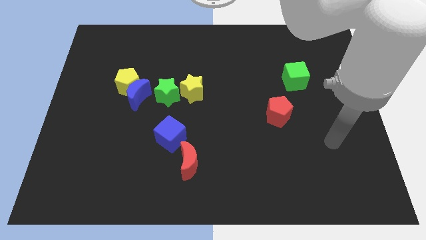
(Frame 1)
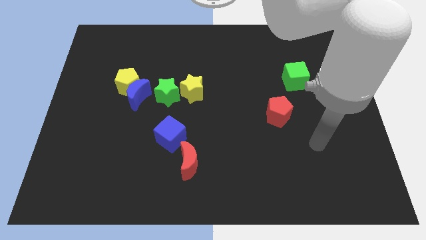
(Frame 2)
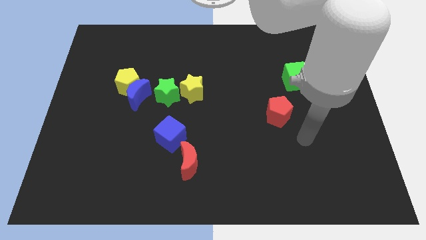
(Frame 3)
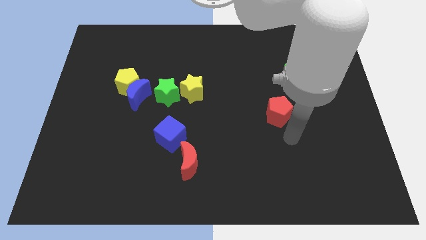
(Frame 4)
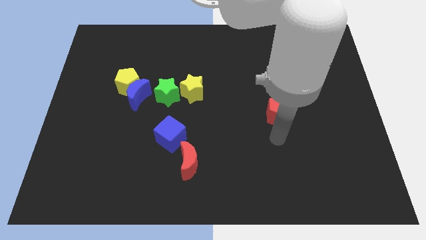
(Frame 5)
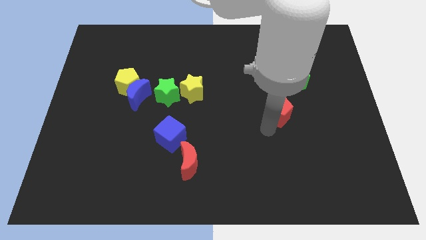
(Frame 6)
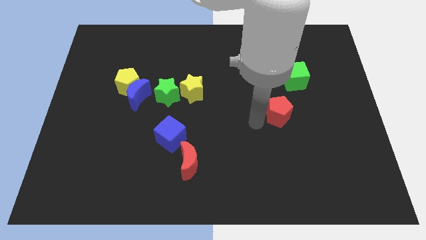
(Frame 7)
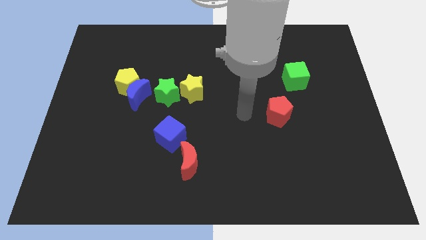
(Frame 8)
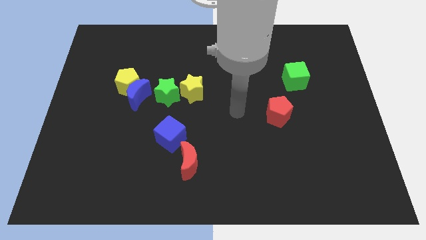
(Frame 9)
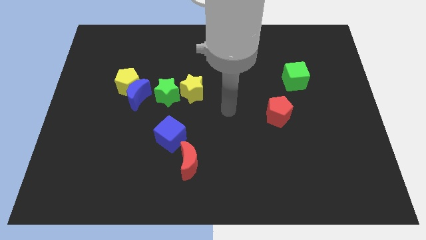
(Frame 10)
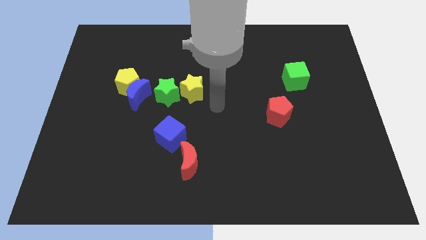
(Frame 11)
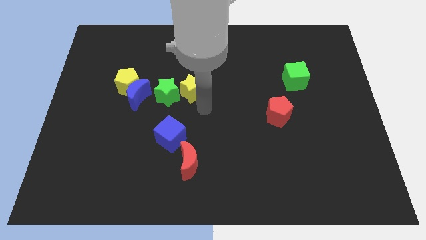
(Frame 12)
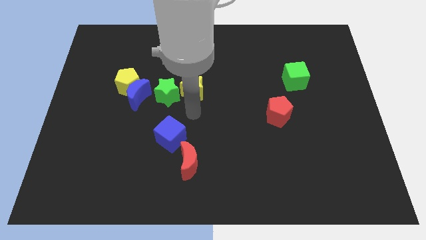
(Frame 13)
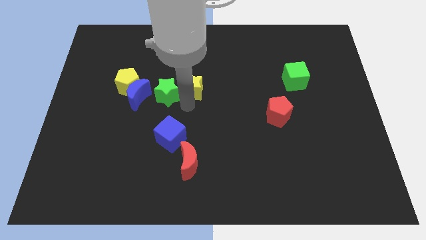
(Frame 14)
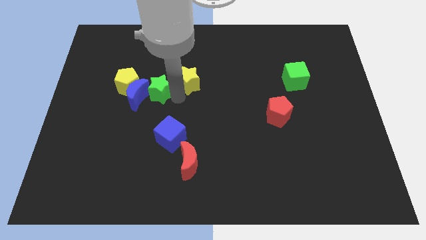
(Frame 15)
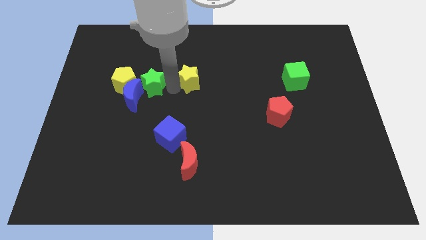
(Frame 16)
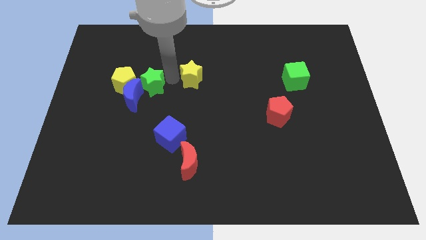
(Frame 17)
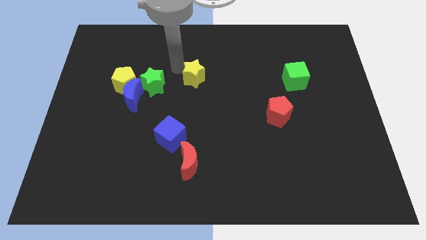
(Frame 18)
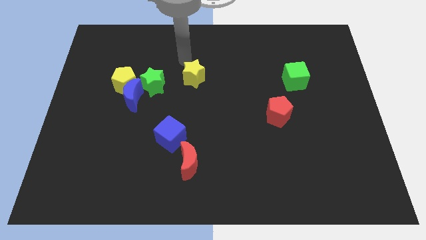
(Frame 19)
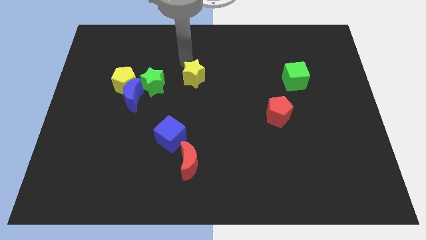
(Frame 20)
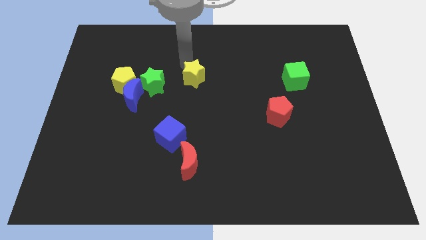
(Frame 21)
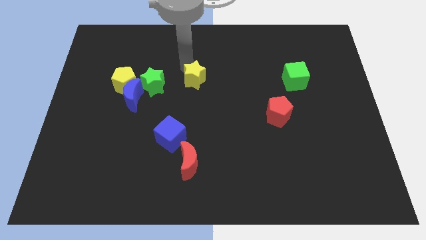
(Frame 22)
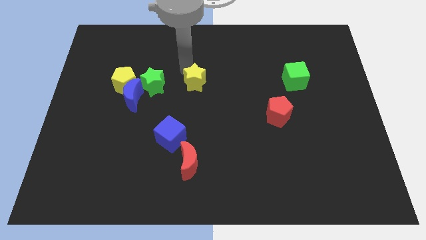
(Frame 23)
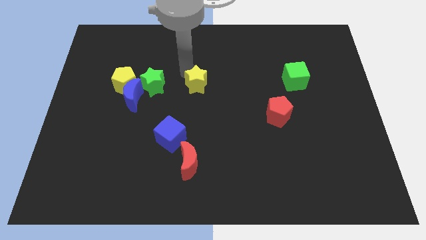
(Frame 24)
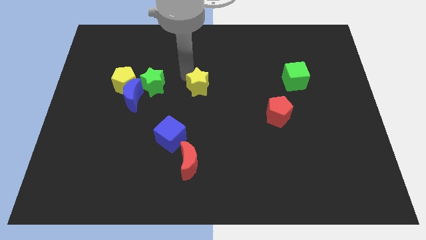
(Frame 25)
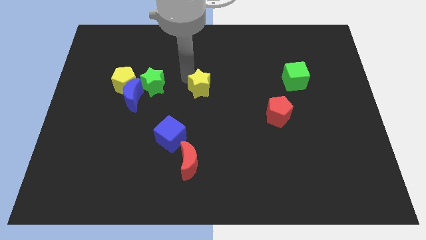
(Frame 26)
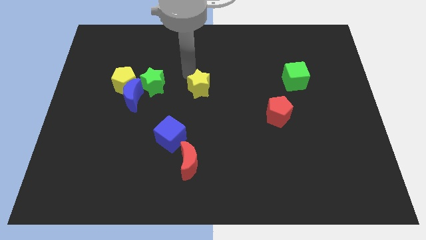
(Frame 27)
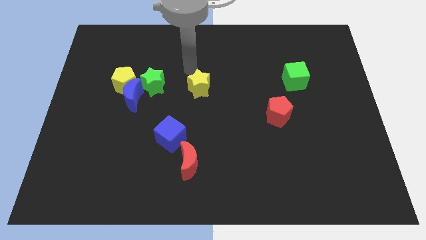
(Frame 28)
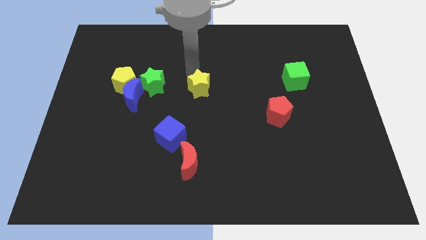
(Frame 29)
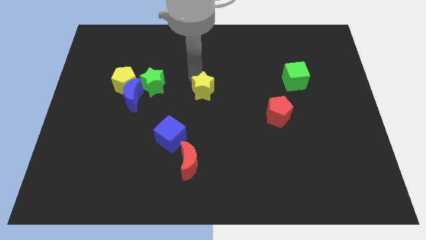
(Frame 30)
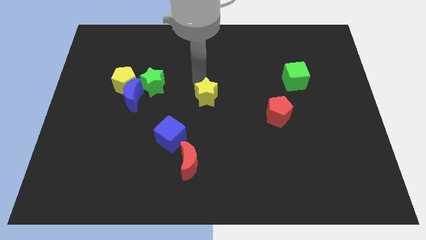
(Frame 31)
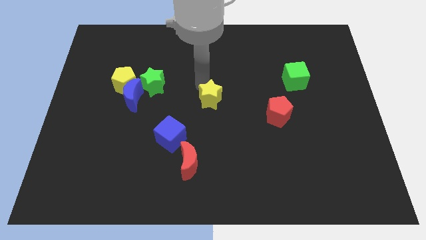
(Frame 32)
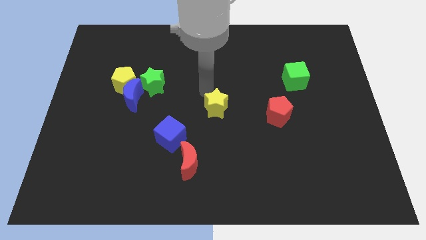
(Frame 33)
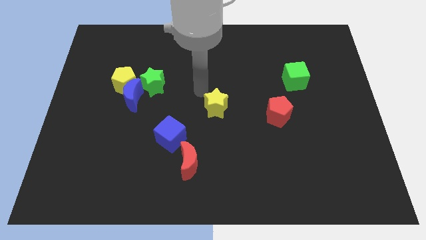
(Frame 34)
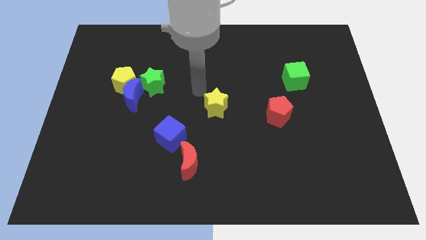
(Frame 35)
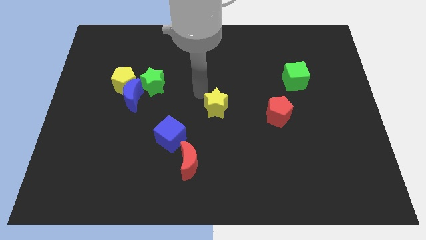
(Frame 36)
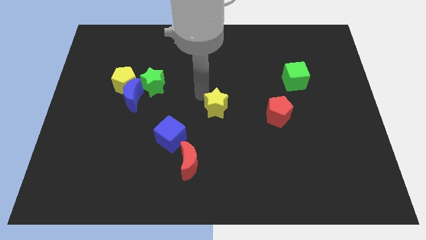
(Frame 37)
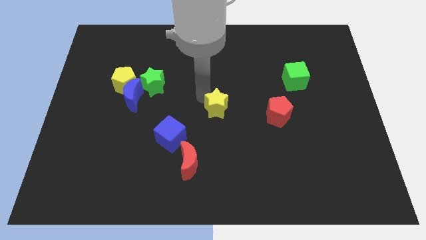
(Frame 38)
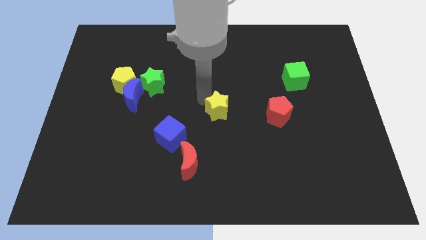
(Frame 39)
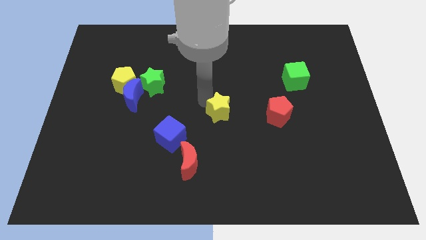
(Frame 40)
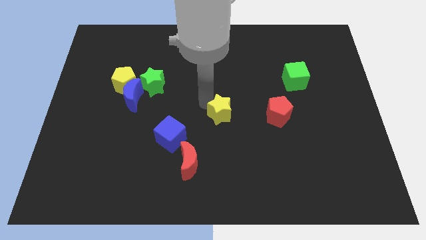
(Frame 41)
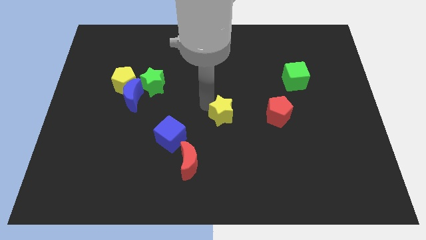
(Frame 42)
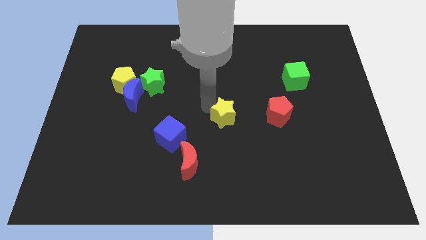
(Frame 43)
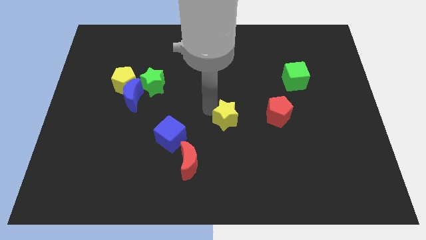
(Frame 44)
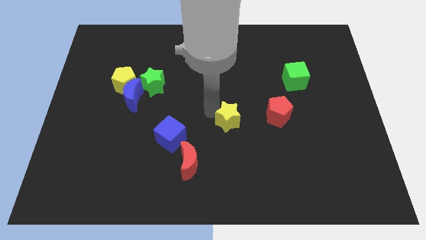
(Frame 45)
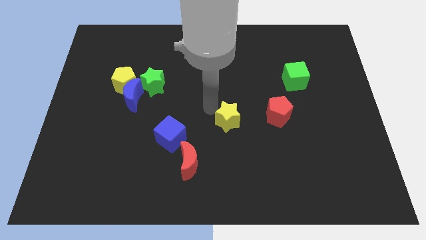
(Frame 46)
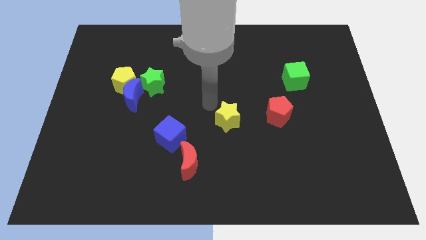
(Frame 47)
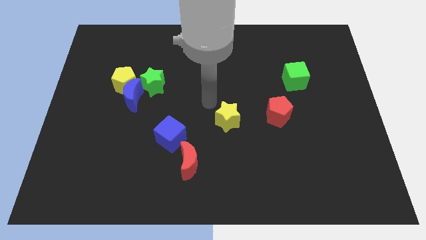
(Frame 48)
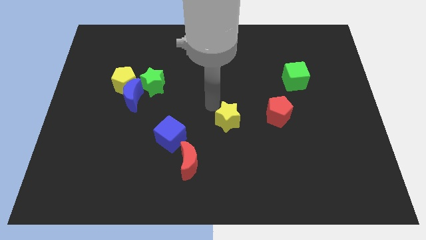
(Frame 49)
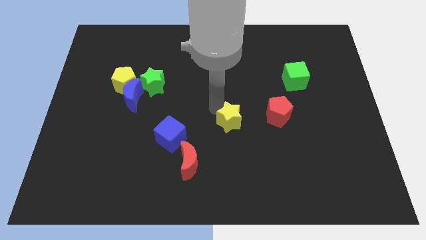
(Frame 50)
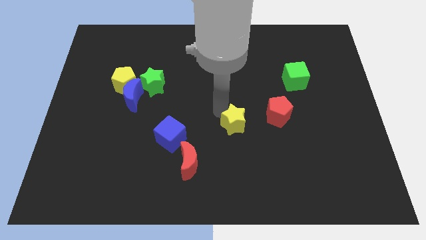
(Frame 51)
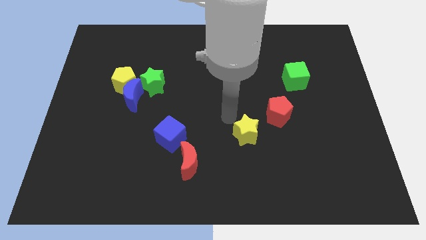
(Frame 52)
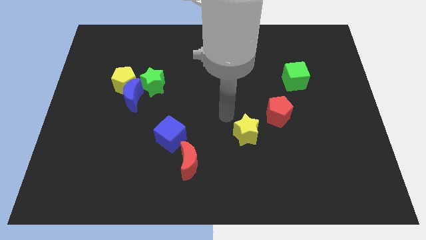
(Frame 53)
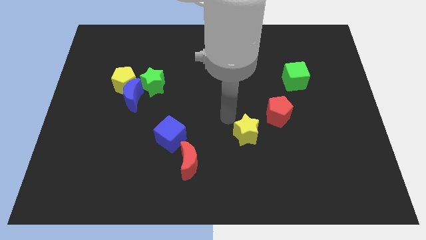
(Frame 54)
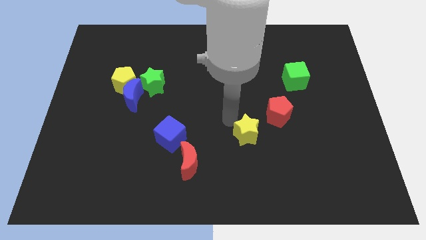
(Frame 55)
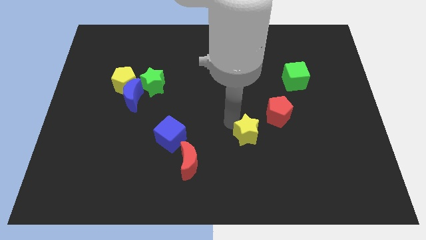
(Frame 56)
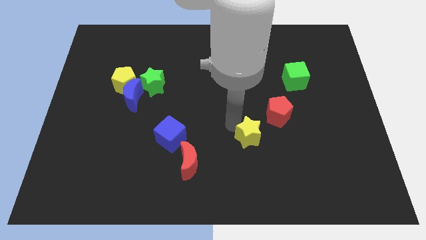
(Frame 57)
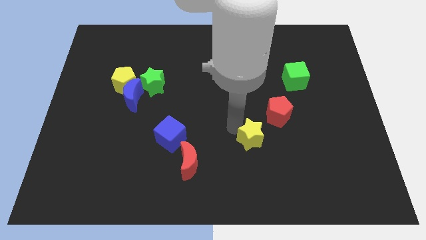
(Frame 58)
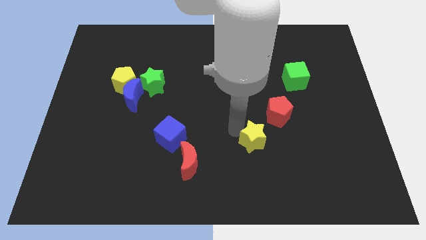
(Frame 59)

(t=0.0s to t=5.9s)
move the yellow star down and to the right

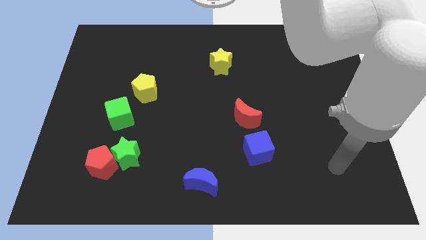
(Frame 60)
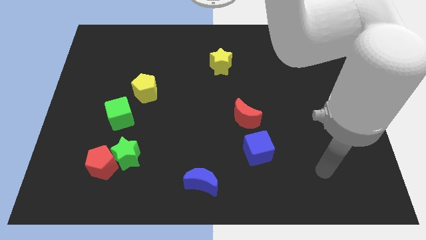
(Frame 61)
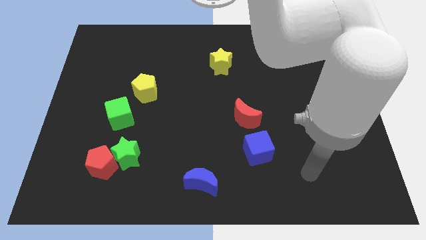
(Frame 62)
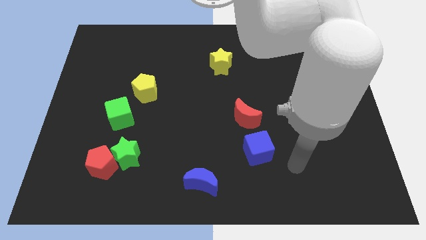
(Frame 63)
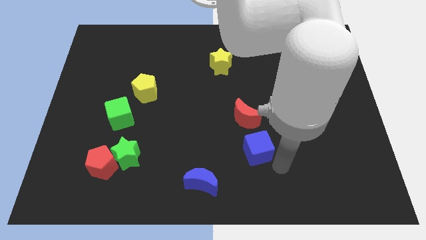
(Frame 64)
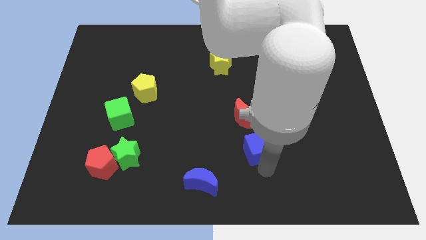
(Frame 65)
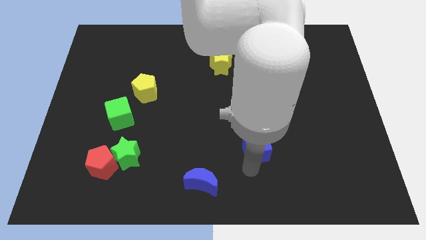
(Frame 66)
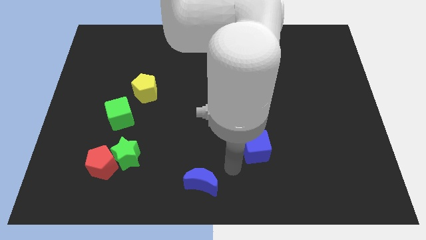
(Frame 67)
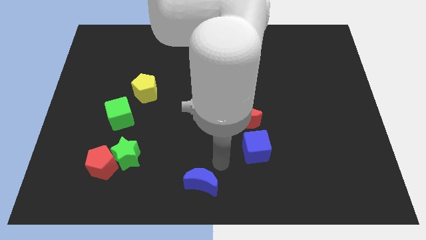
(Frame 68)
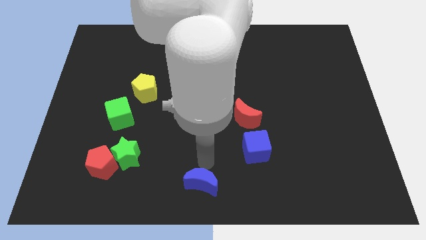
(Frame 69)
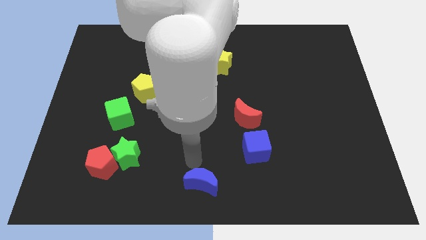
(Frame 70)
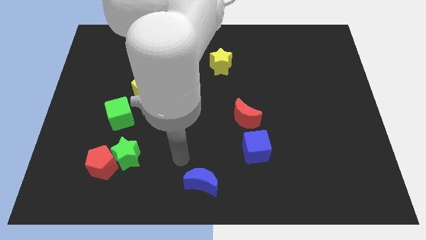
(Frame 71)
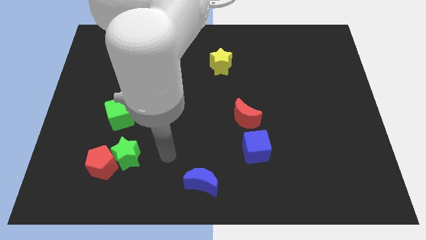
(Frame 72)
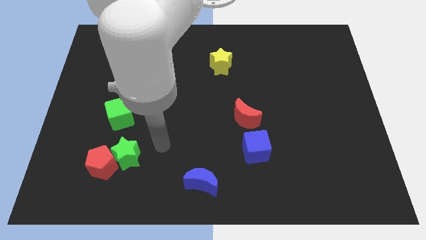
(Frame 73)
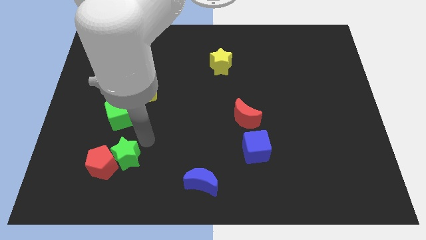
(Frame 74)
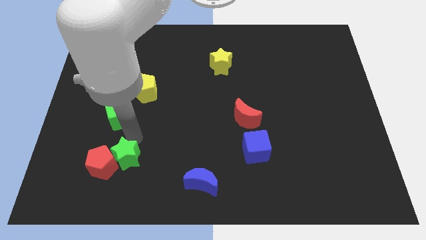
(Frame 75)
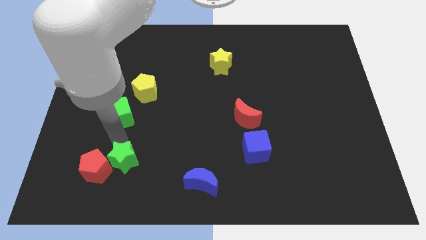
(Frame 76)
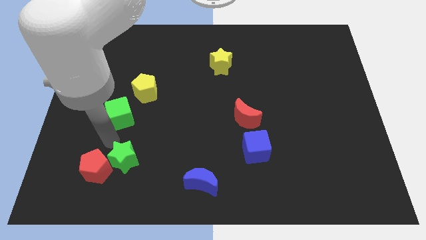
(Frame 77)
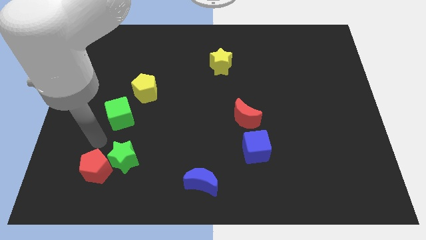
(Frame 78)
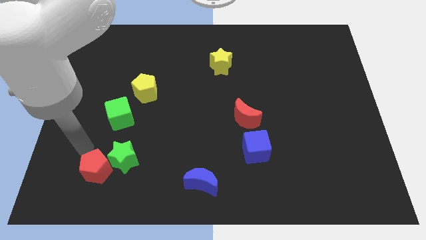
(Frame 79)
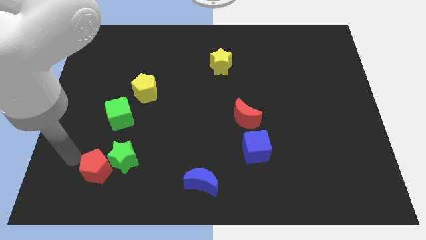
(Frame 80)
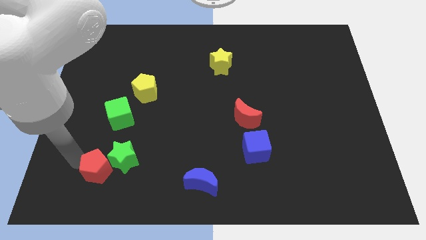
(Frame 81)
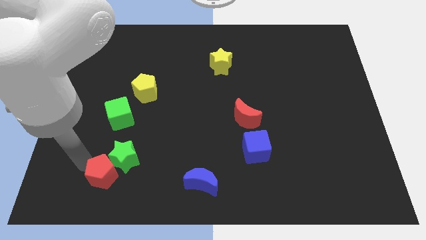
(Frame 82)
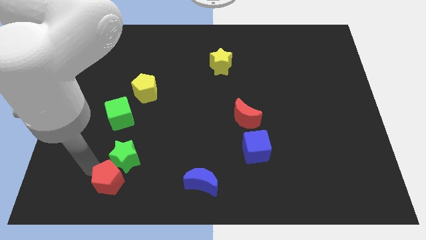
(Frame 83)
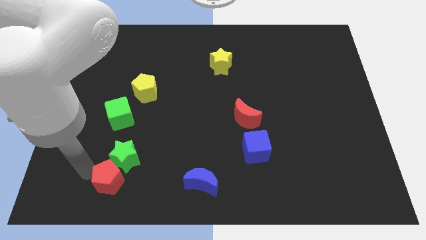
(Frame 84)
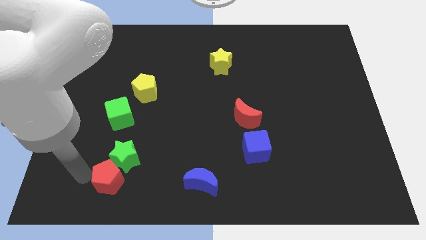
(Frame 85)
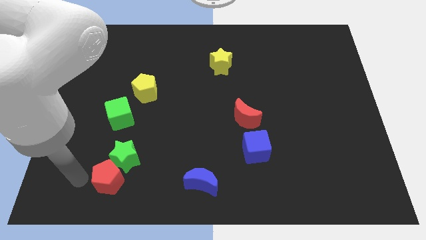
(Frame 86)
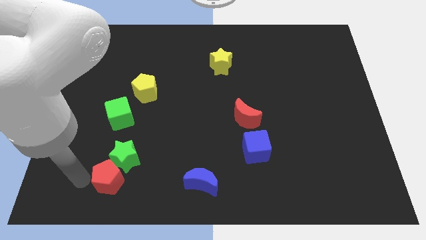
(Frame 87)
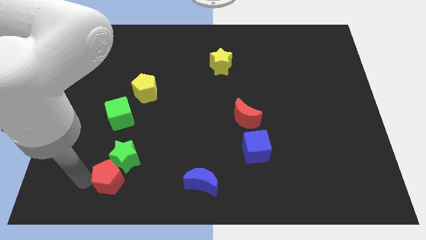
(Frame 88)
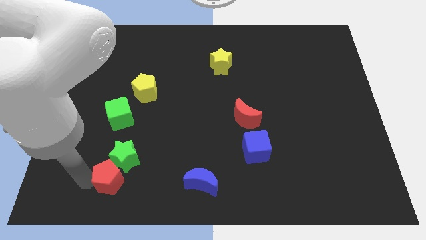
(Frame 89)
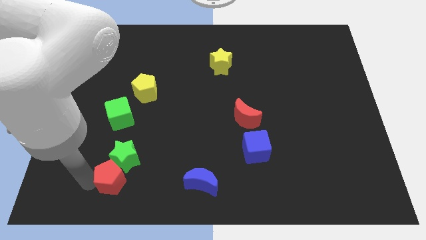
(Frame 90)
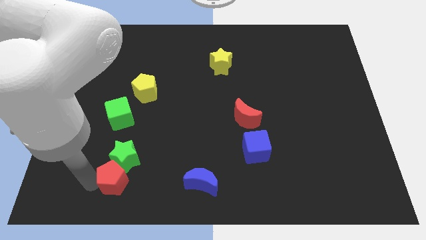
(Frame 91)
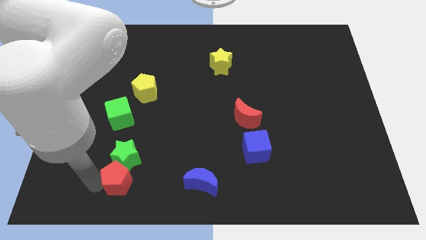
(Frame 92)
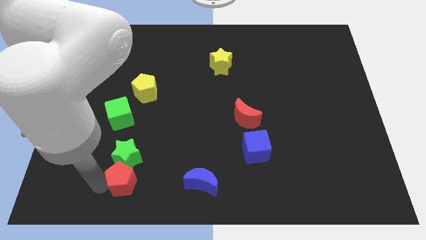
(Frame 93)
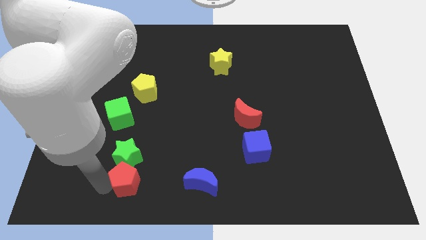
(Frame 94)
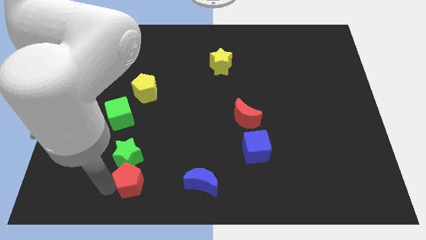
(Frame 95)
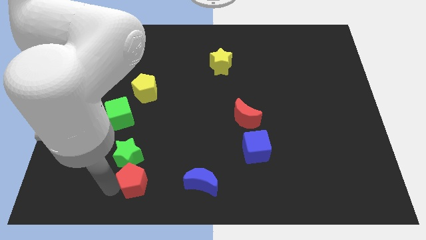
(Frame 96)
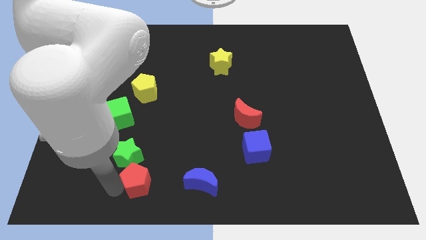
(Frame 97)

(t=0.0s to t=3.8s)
move the red pentagon right slightly
